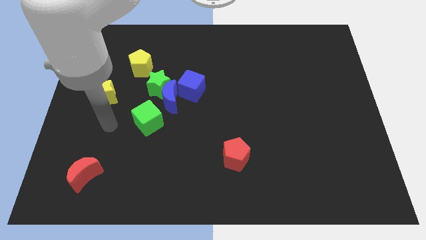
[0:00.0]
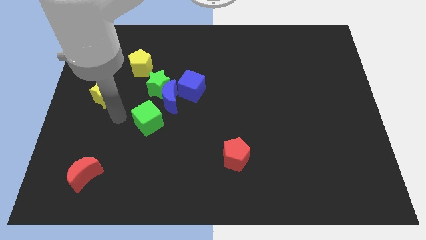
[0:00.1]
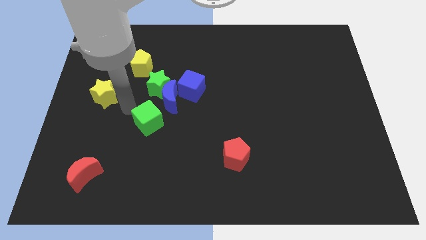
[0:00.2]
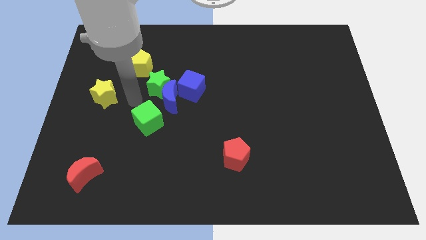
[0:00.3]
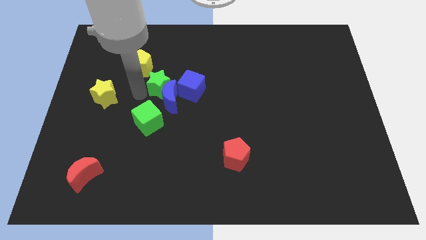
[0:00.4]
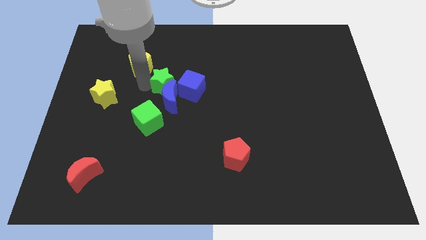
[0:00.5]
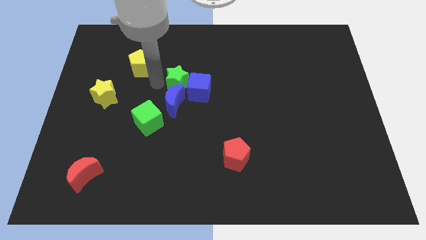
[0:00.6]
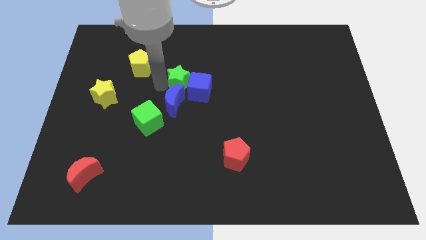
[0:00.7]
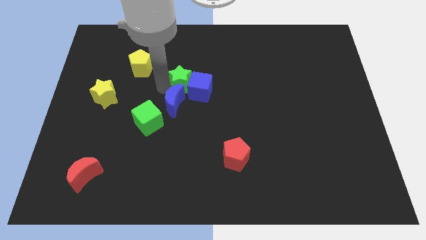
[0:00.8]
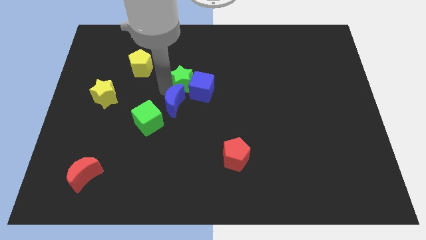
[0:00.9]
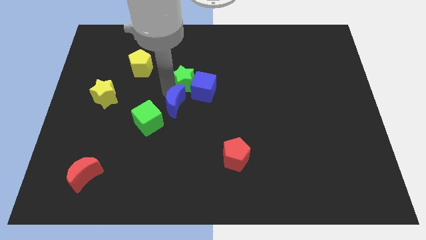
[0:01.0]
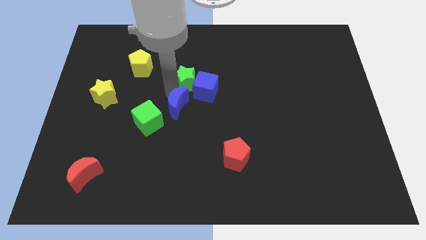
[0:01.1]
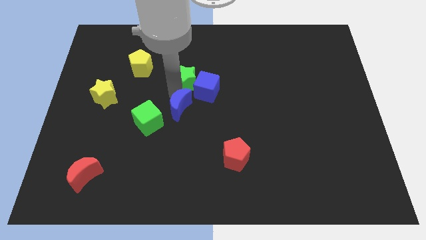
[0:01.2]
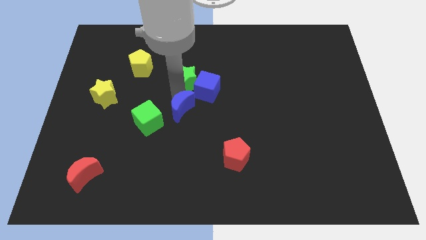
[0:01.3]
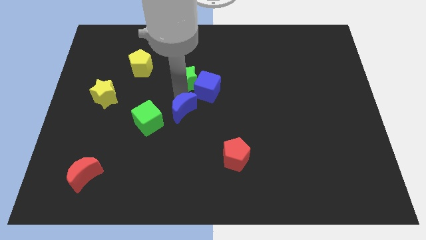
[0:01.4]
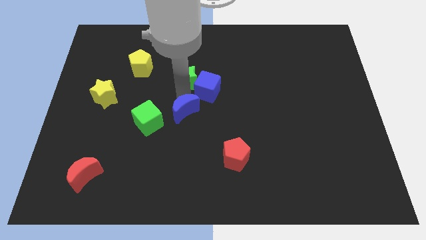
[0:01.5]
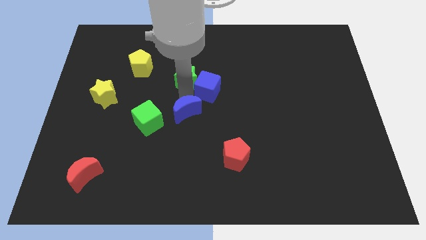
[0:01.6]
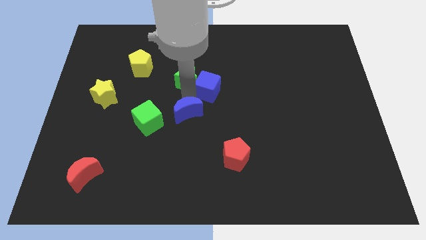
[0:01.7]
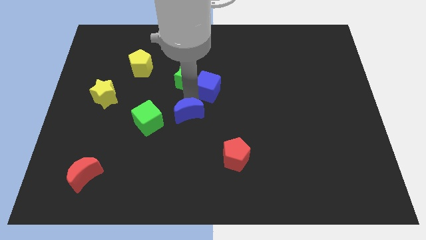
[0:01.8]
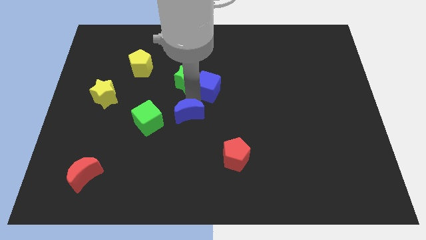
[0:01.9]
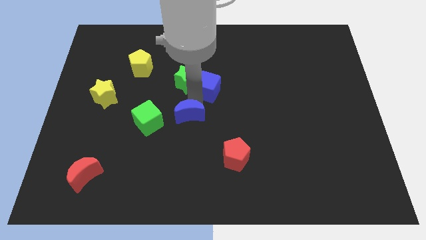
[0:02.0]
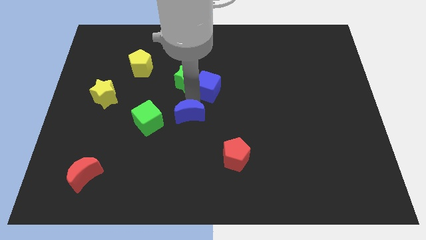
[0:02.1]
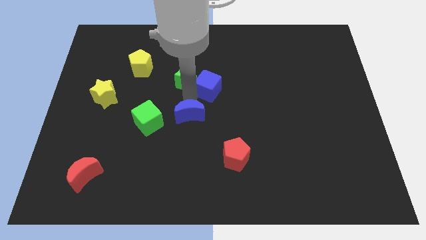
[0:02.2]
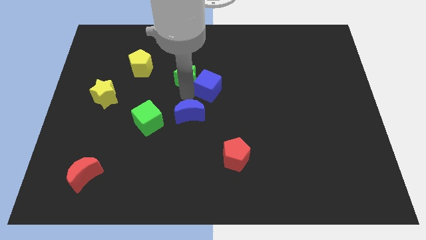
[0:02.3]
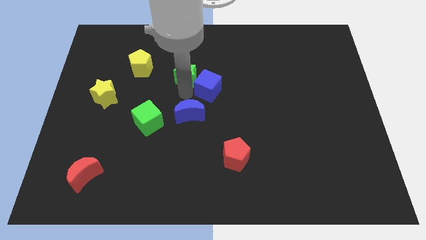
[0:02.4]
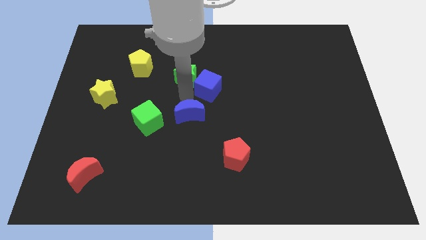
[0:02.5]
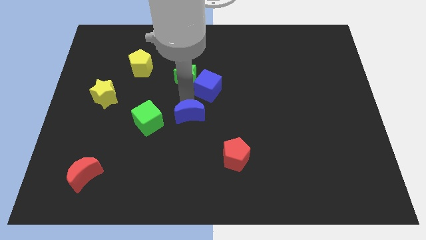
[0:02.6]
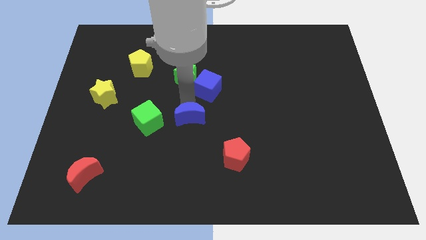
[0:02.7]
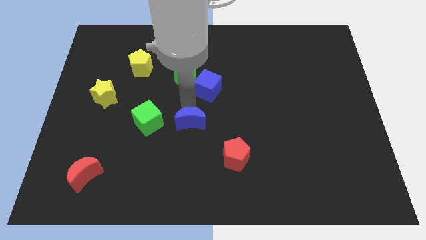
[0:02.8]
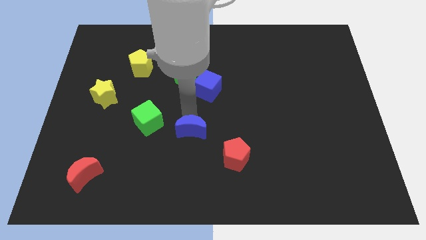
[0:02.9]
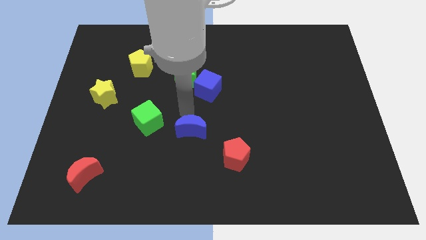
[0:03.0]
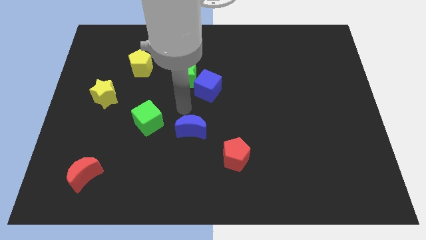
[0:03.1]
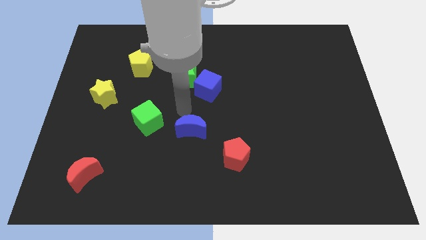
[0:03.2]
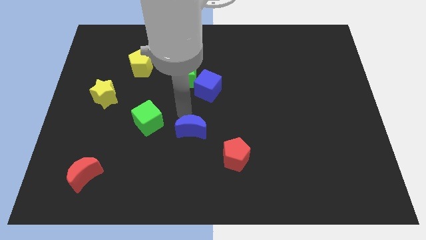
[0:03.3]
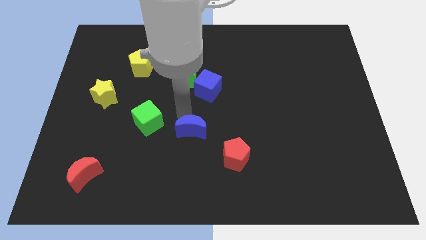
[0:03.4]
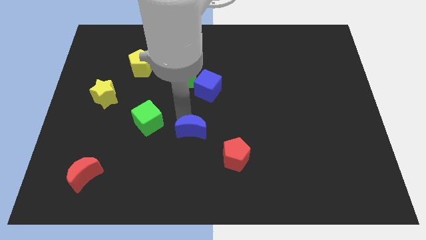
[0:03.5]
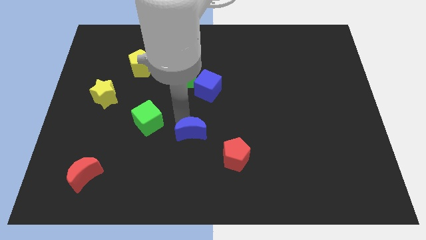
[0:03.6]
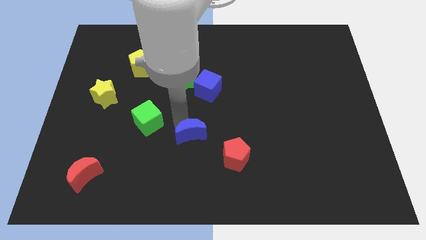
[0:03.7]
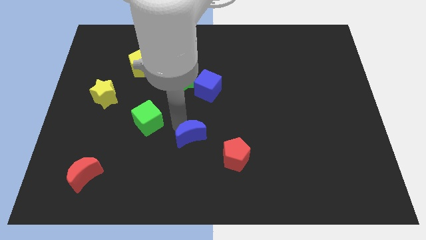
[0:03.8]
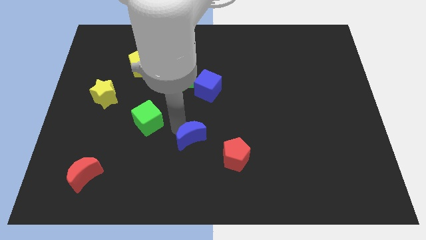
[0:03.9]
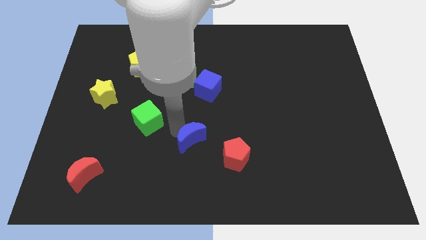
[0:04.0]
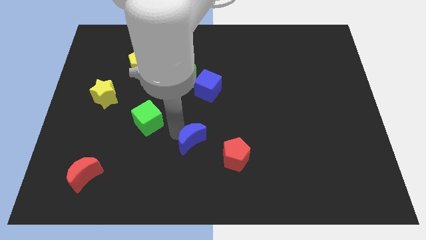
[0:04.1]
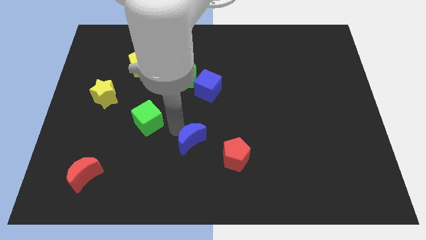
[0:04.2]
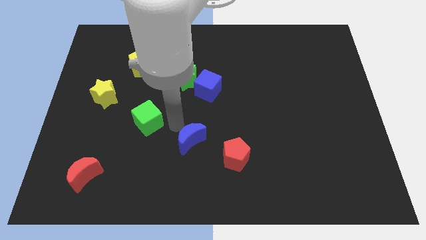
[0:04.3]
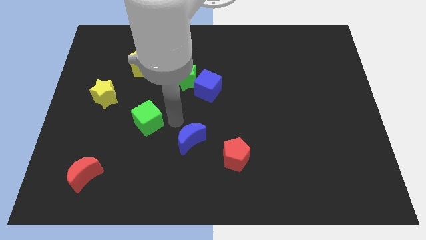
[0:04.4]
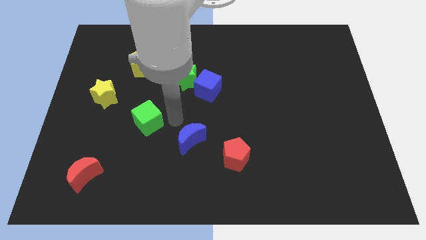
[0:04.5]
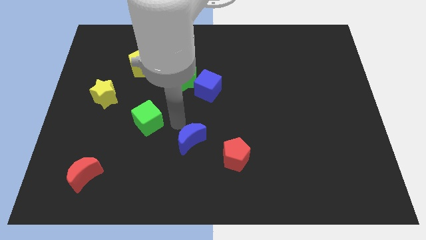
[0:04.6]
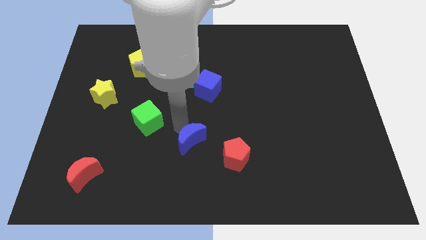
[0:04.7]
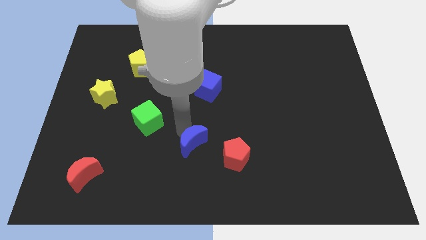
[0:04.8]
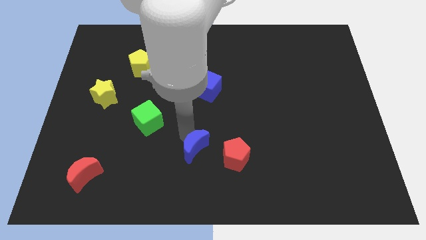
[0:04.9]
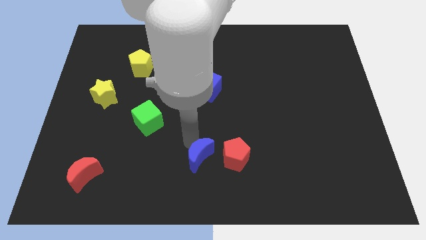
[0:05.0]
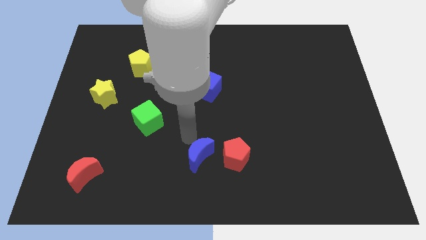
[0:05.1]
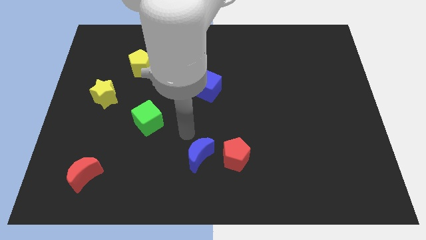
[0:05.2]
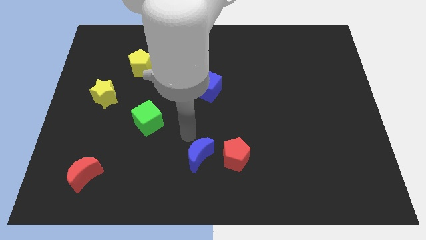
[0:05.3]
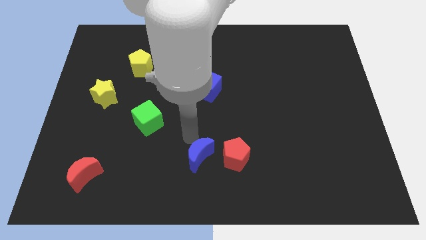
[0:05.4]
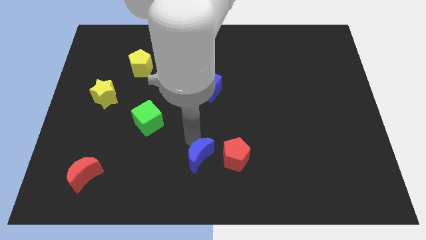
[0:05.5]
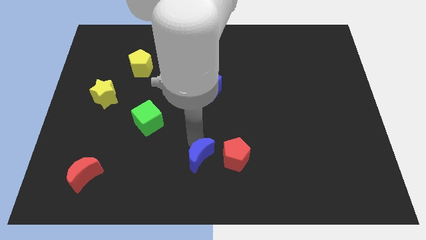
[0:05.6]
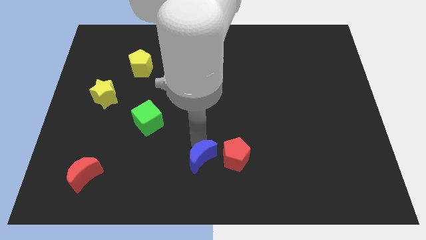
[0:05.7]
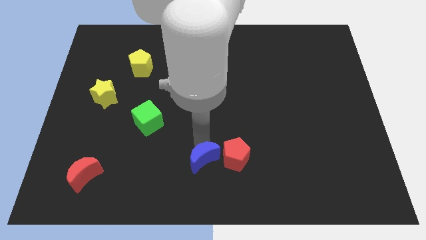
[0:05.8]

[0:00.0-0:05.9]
slide the blue moon to the bottom left side of the red pentagon
